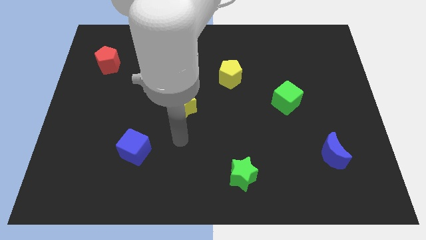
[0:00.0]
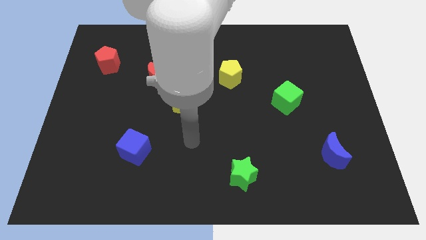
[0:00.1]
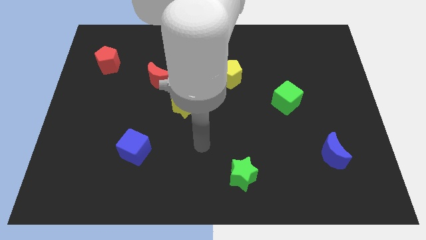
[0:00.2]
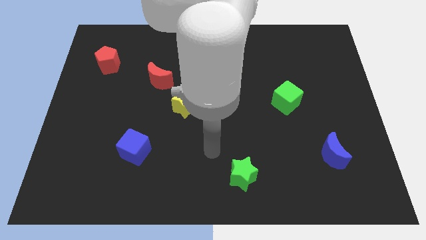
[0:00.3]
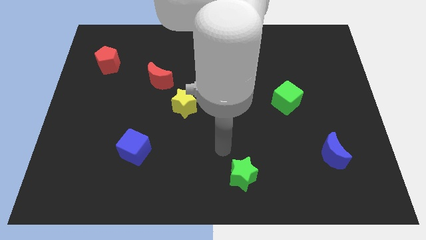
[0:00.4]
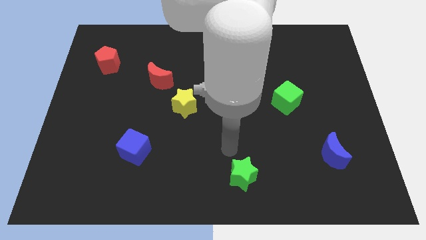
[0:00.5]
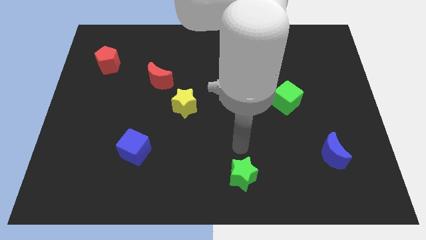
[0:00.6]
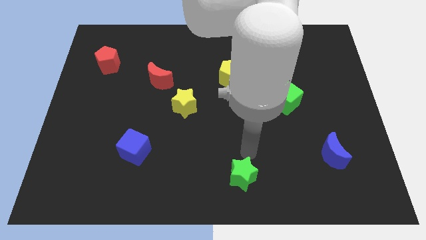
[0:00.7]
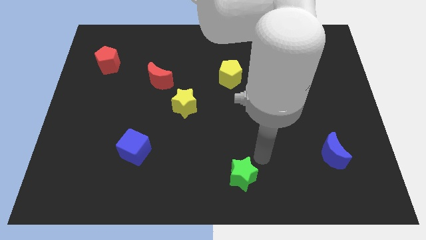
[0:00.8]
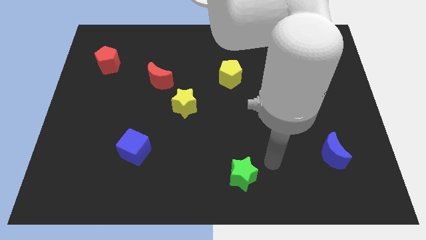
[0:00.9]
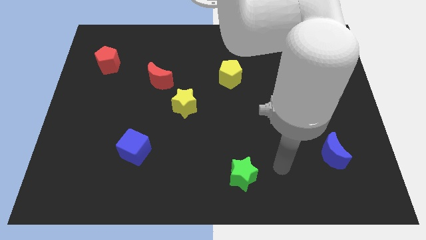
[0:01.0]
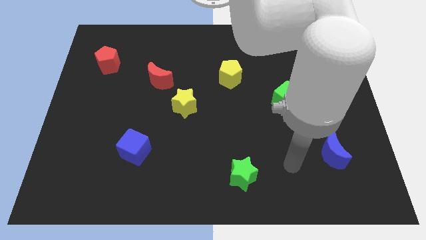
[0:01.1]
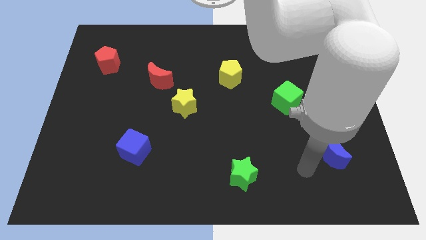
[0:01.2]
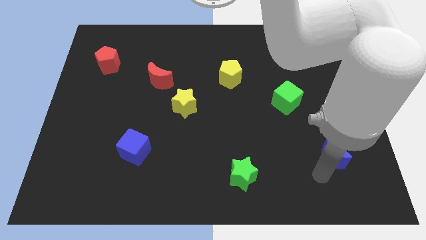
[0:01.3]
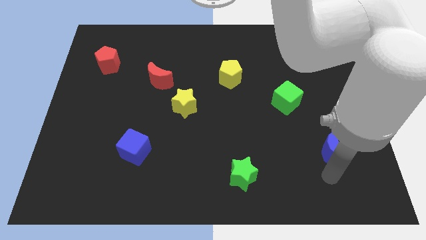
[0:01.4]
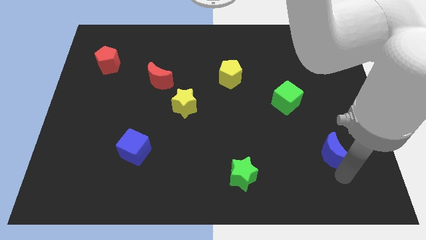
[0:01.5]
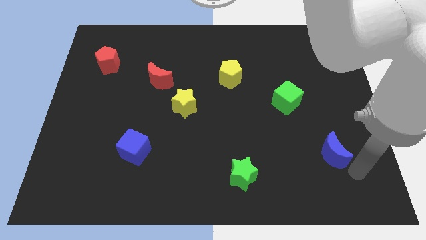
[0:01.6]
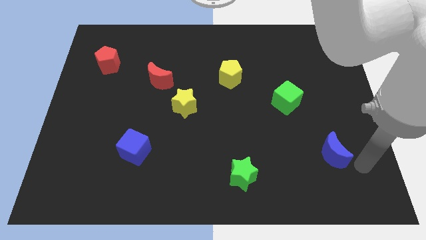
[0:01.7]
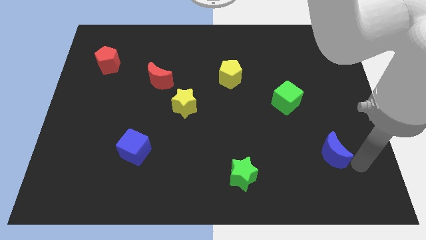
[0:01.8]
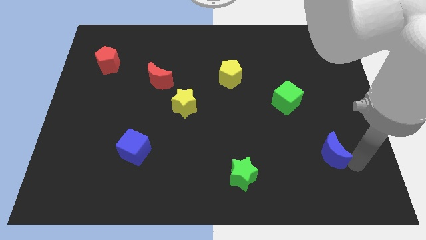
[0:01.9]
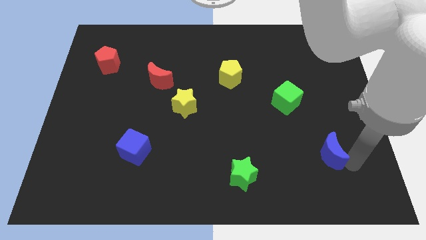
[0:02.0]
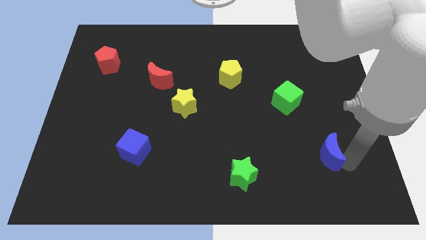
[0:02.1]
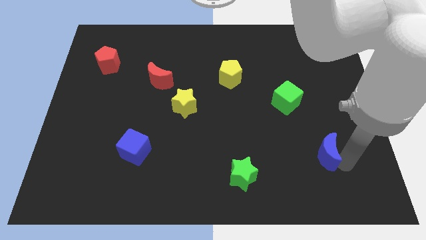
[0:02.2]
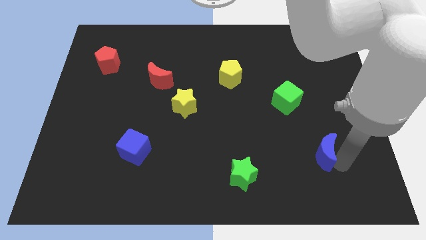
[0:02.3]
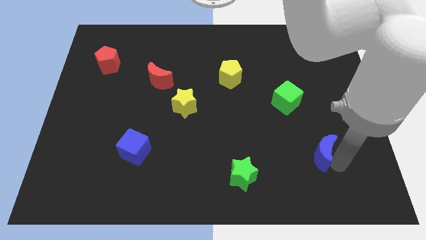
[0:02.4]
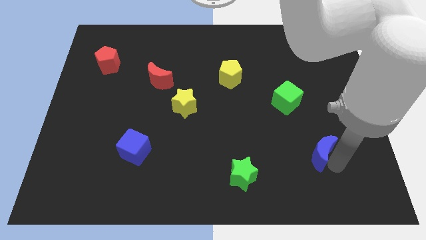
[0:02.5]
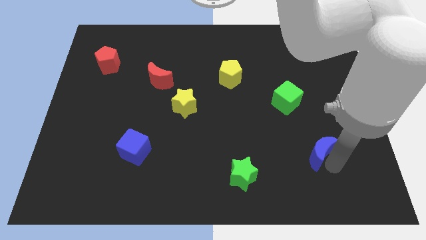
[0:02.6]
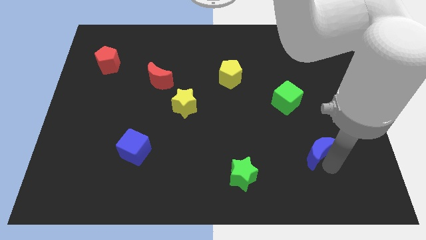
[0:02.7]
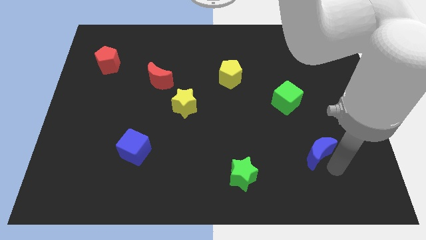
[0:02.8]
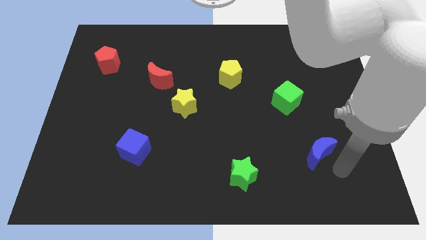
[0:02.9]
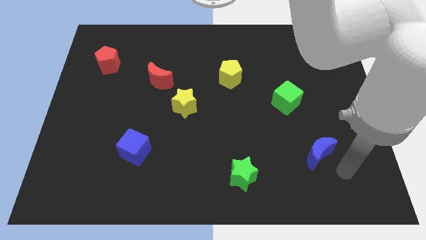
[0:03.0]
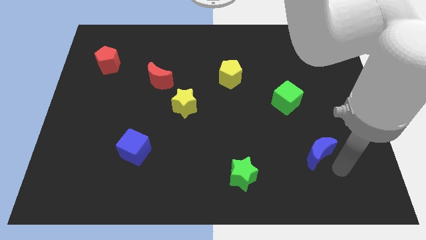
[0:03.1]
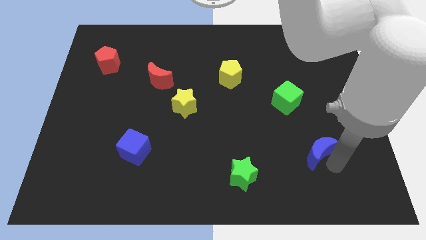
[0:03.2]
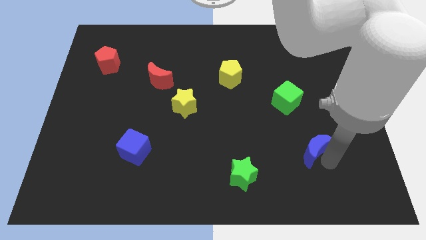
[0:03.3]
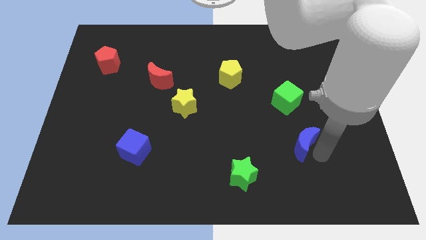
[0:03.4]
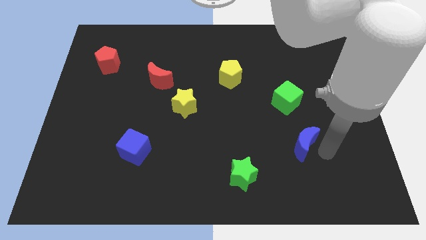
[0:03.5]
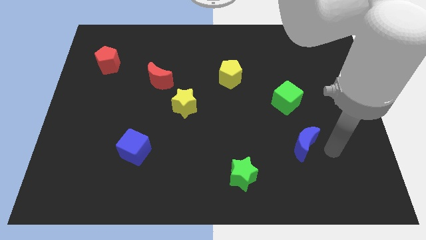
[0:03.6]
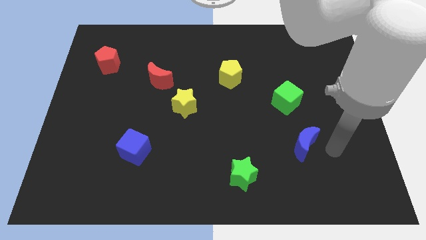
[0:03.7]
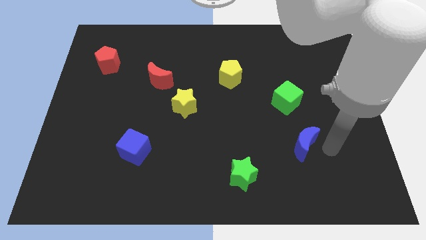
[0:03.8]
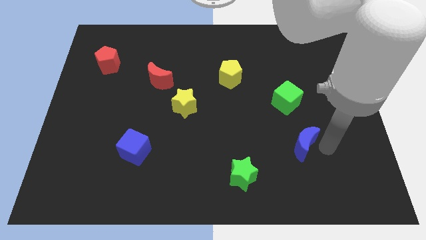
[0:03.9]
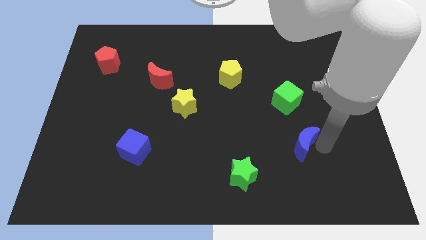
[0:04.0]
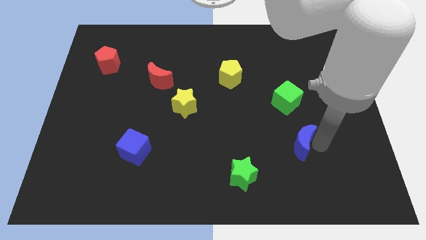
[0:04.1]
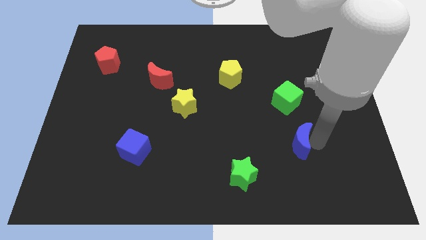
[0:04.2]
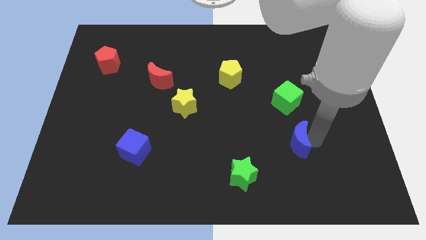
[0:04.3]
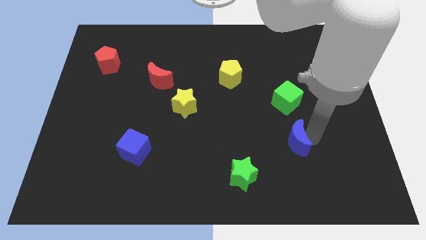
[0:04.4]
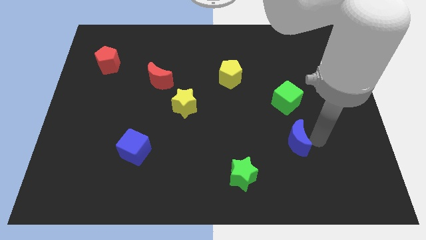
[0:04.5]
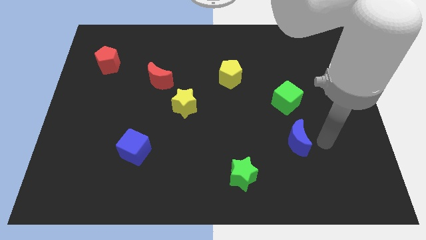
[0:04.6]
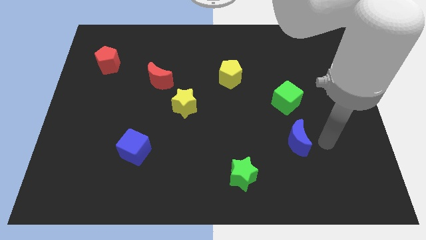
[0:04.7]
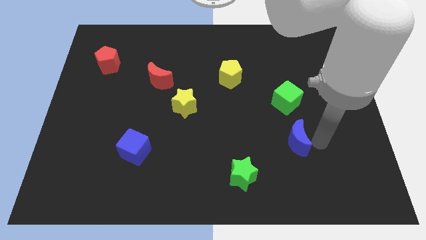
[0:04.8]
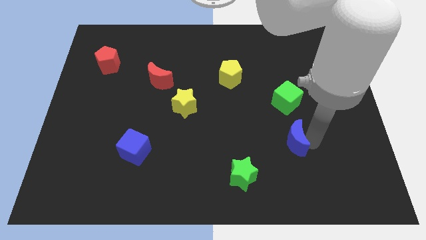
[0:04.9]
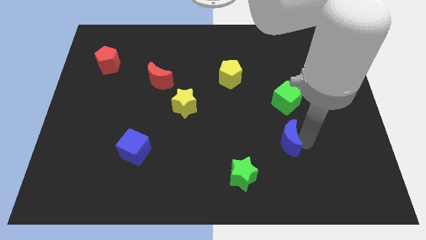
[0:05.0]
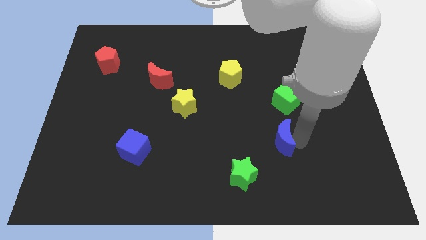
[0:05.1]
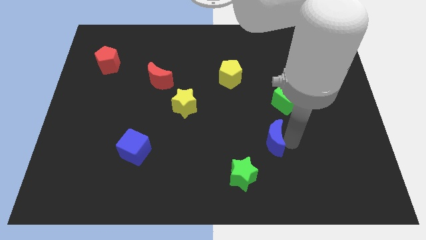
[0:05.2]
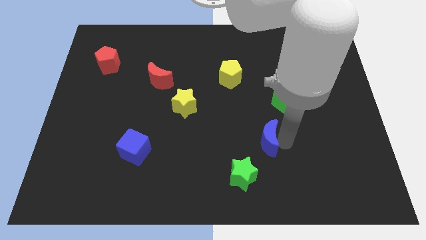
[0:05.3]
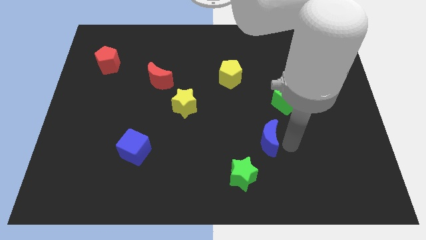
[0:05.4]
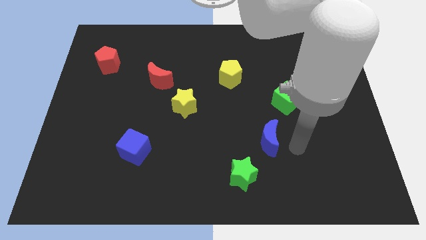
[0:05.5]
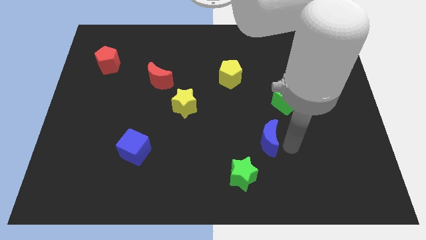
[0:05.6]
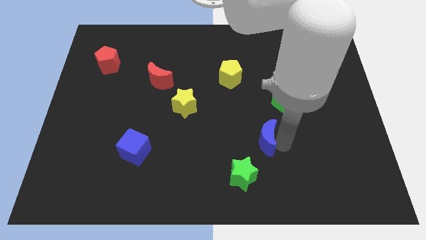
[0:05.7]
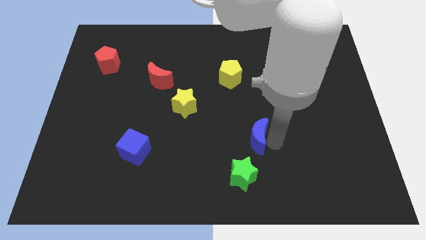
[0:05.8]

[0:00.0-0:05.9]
move the blue moon to the top side of the green star

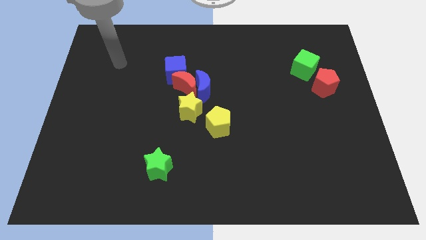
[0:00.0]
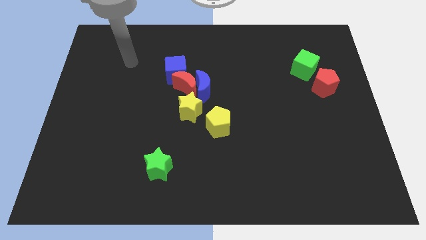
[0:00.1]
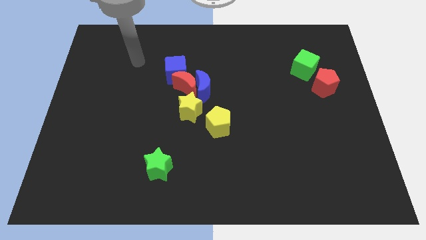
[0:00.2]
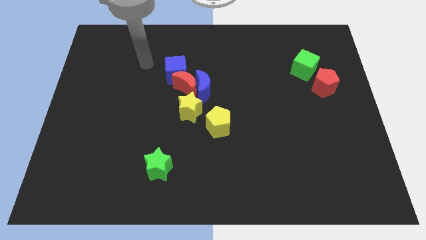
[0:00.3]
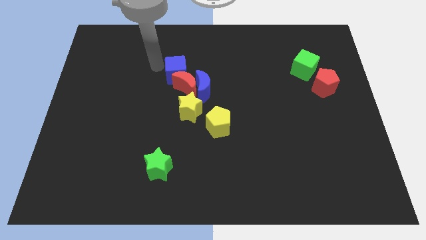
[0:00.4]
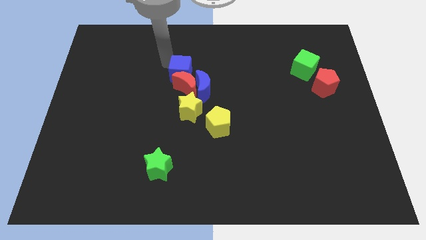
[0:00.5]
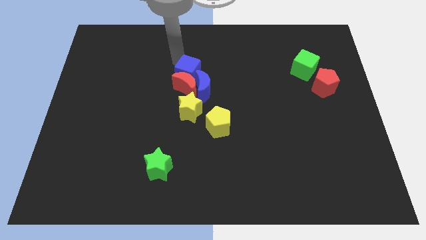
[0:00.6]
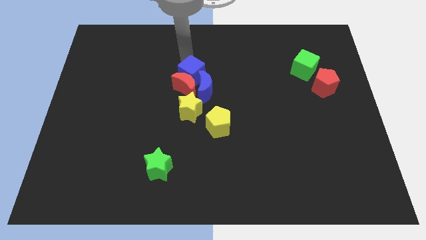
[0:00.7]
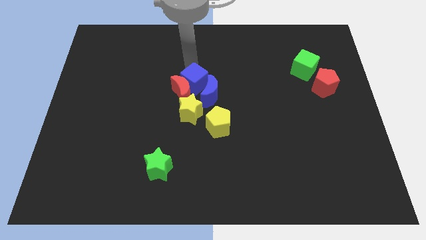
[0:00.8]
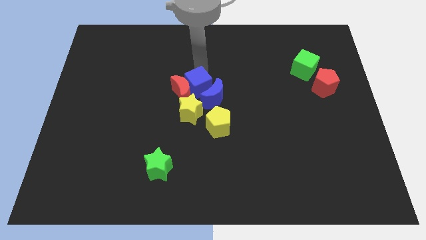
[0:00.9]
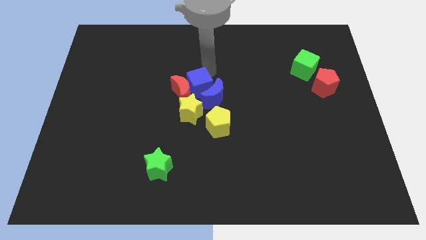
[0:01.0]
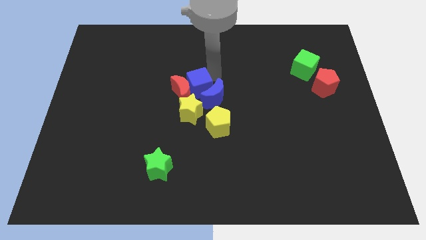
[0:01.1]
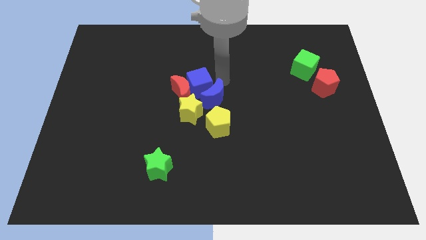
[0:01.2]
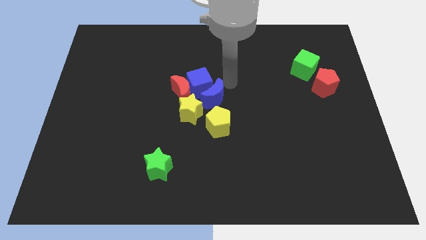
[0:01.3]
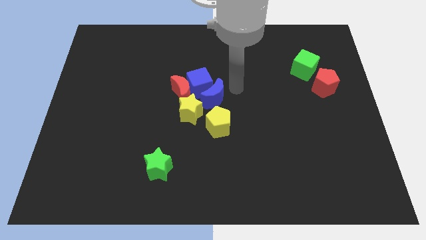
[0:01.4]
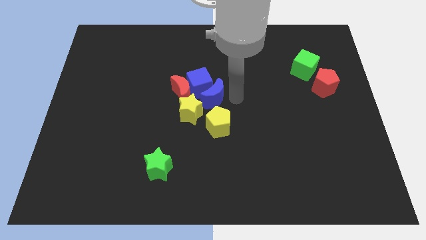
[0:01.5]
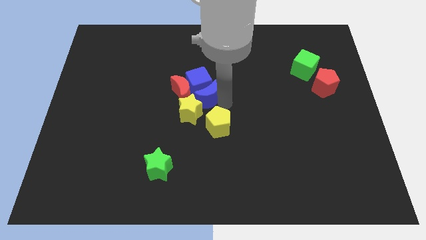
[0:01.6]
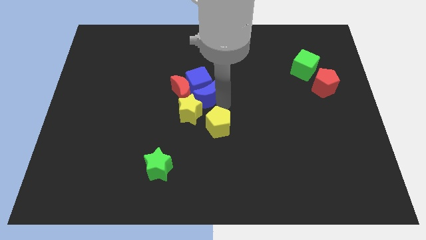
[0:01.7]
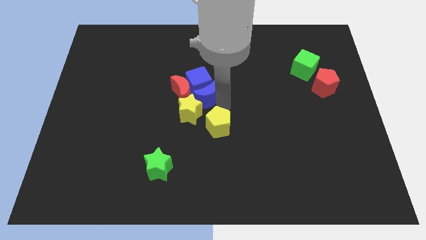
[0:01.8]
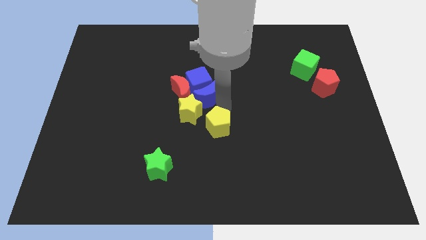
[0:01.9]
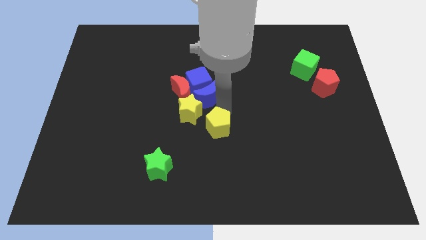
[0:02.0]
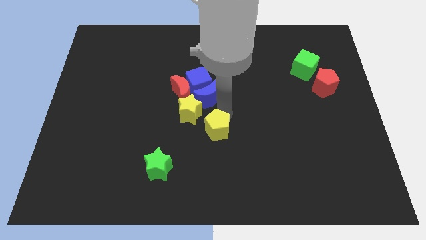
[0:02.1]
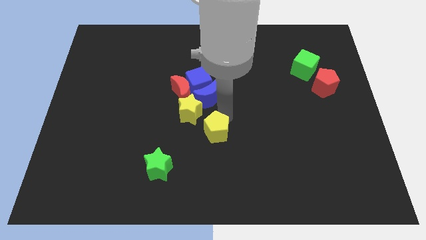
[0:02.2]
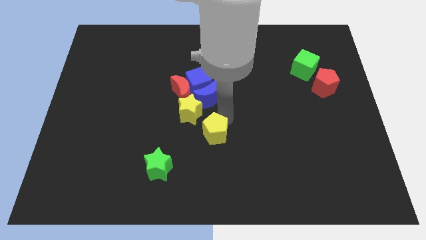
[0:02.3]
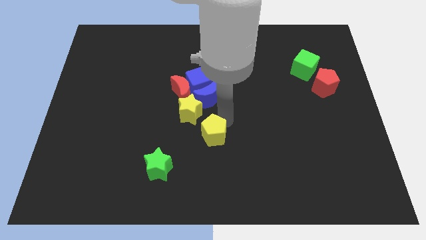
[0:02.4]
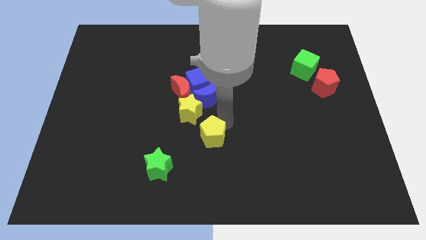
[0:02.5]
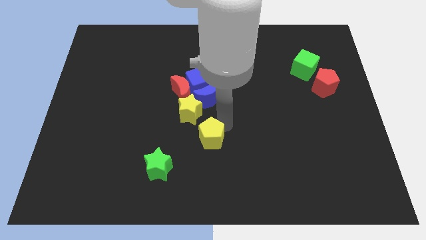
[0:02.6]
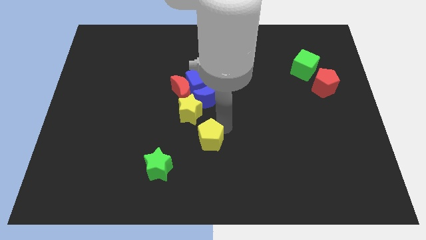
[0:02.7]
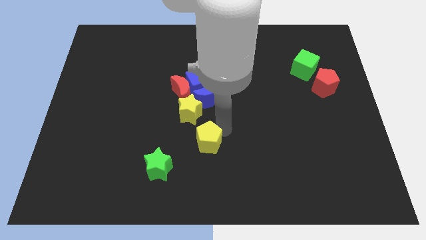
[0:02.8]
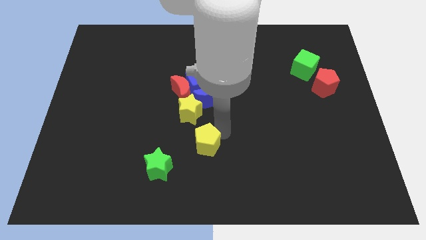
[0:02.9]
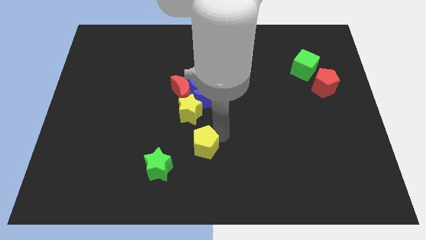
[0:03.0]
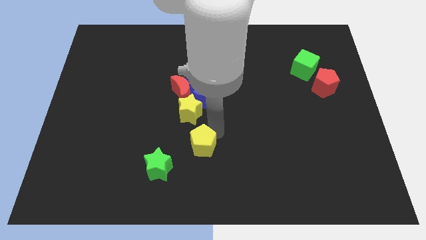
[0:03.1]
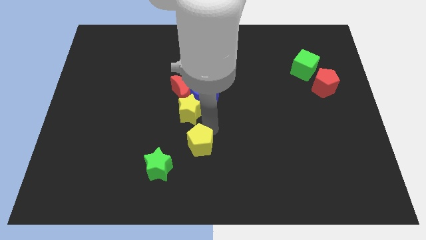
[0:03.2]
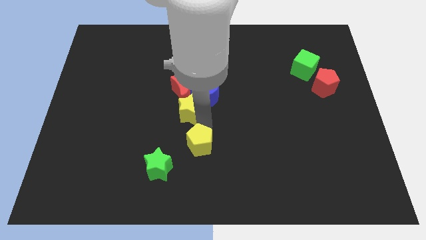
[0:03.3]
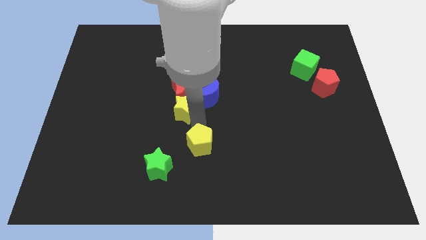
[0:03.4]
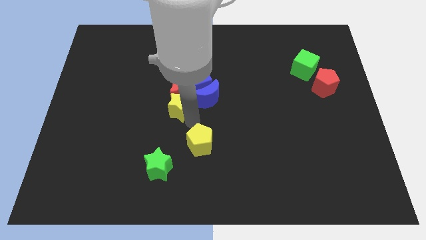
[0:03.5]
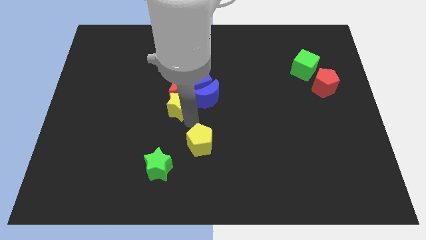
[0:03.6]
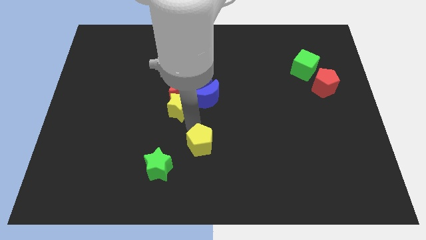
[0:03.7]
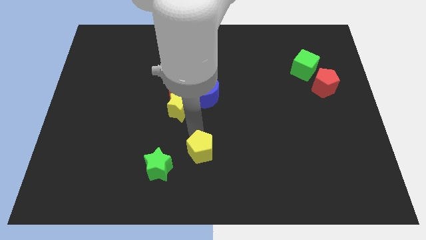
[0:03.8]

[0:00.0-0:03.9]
move the yellow pentagon to the right of the green star
